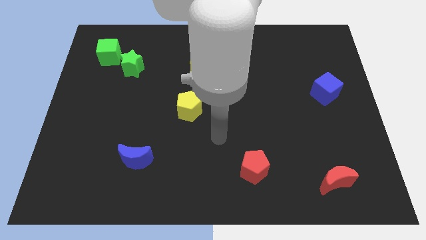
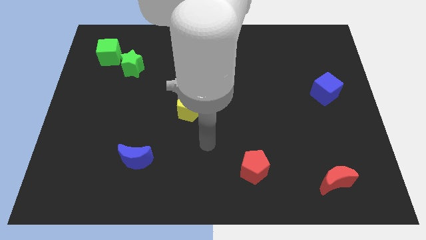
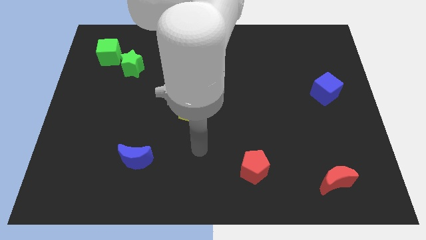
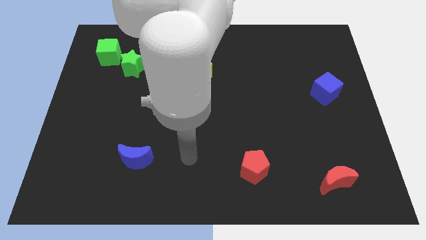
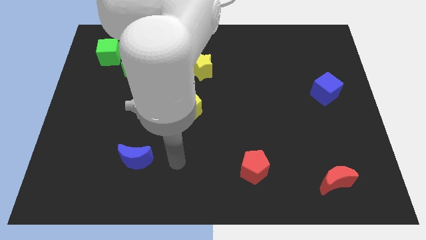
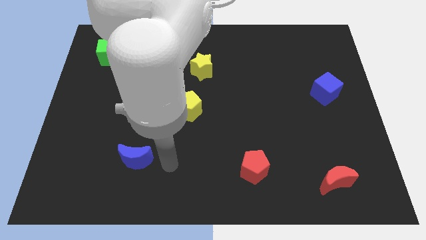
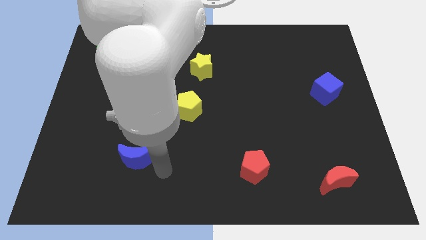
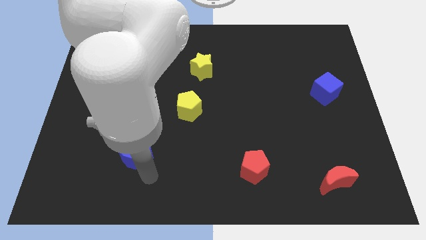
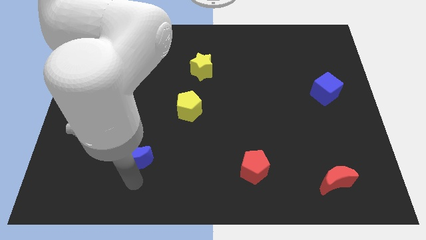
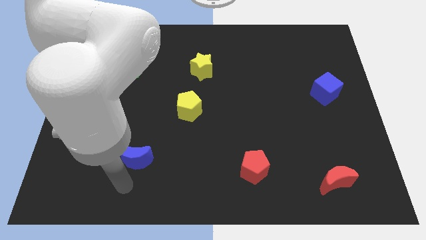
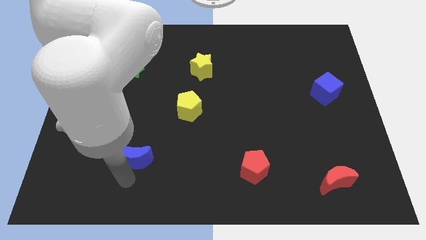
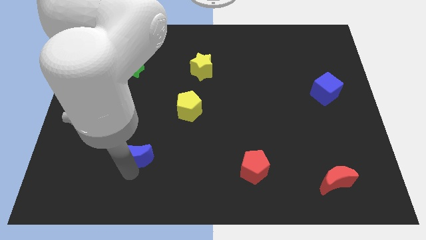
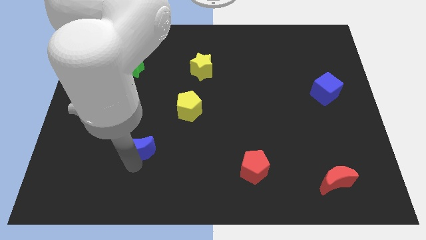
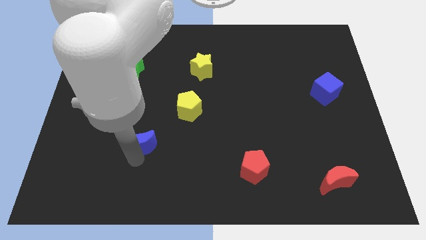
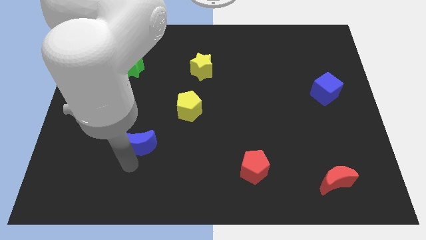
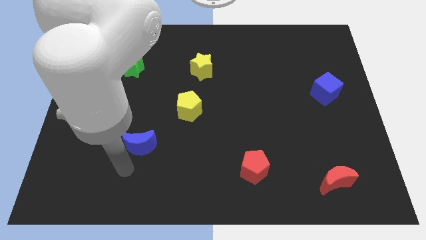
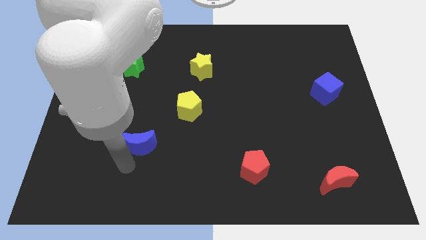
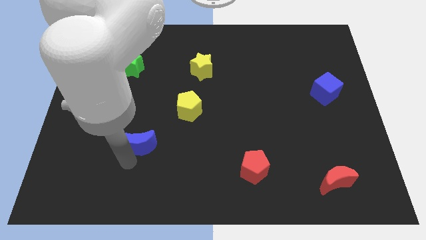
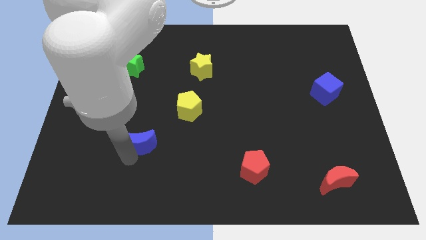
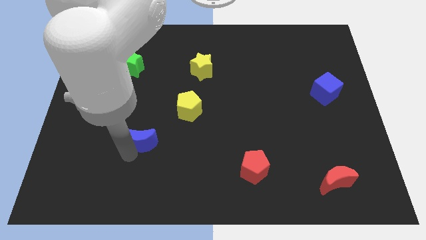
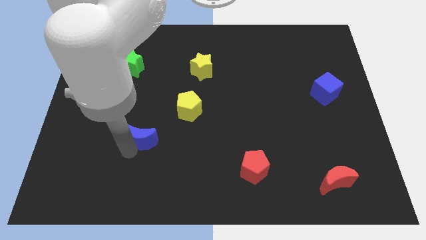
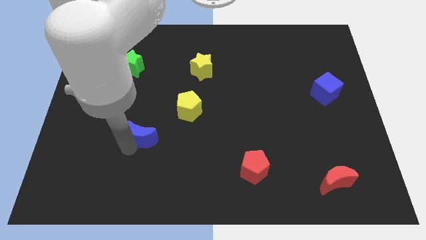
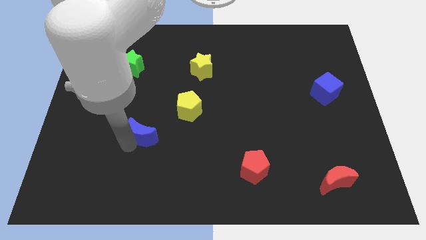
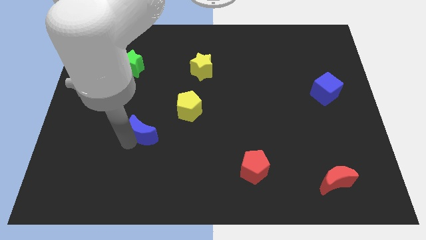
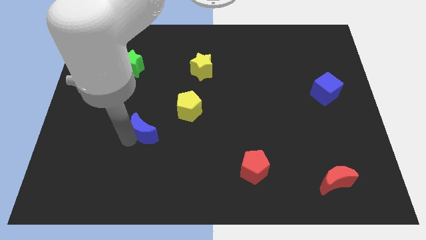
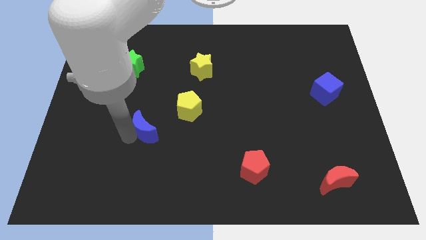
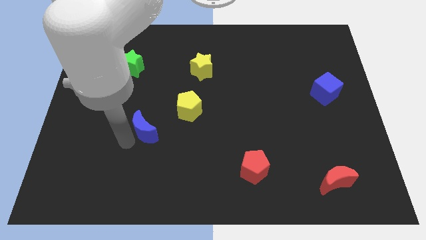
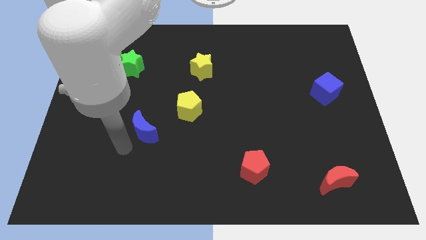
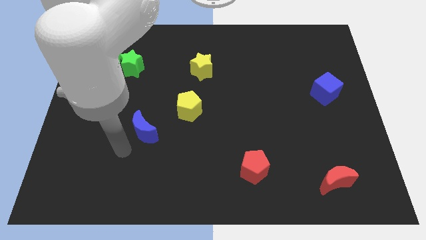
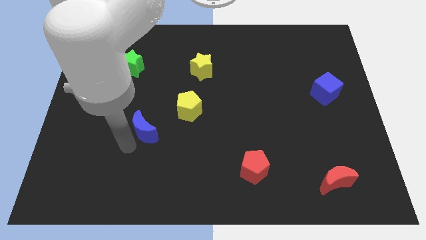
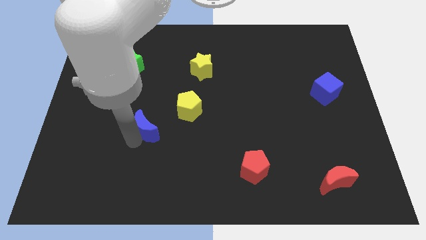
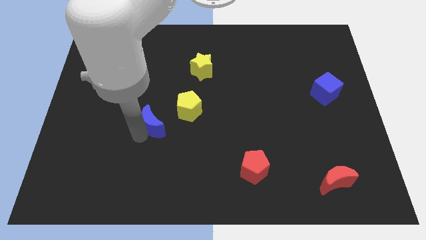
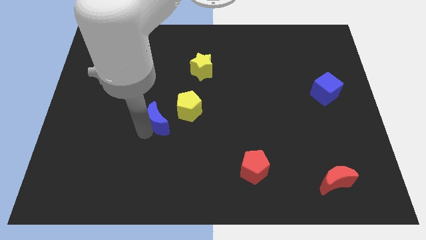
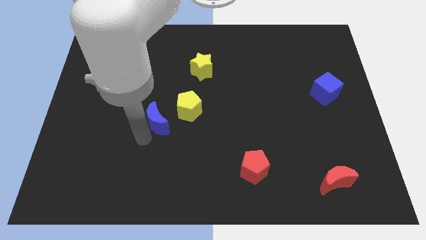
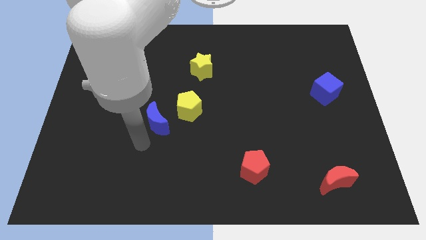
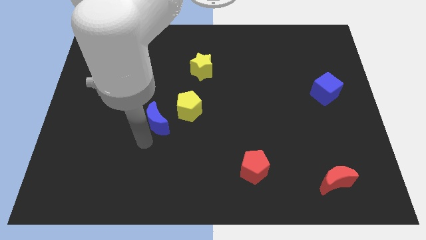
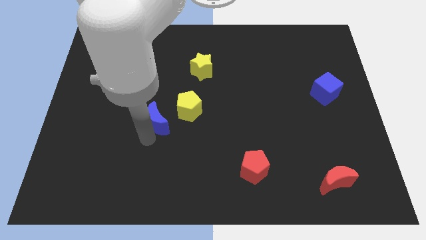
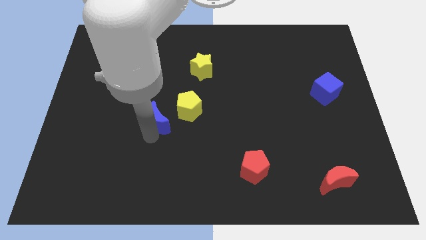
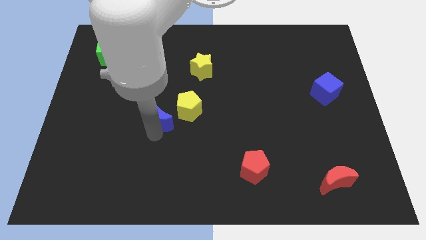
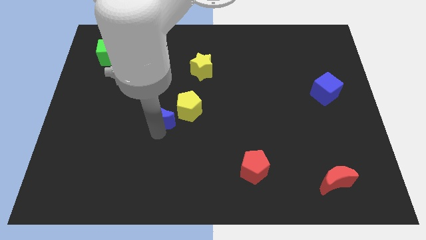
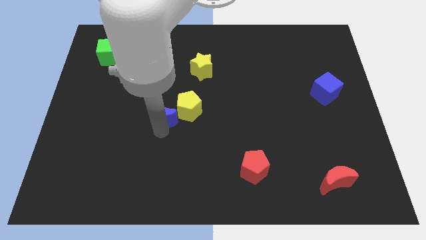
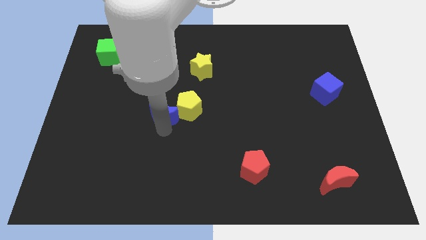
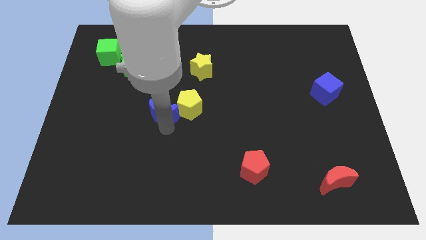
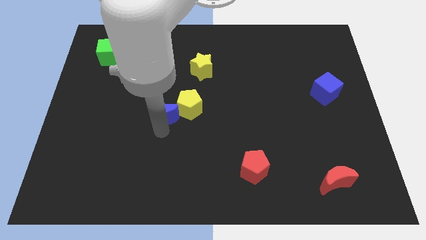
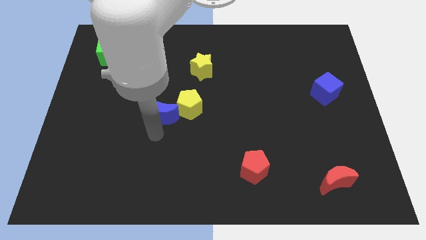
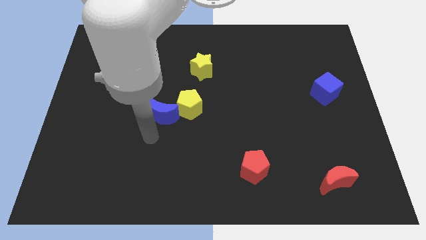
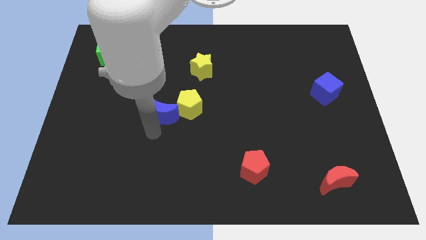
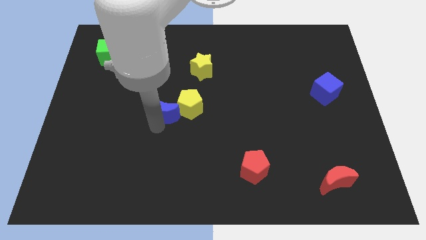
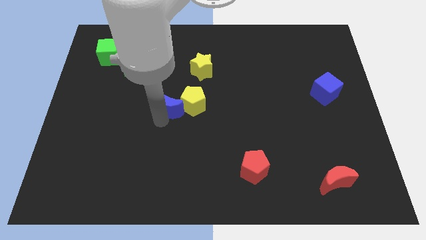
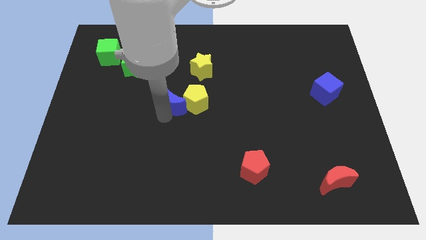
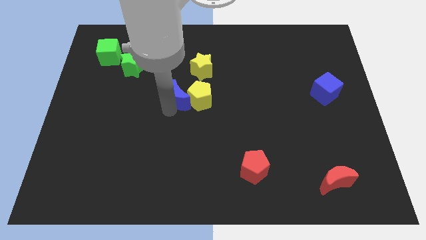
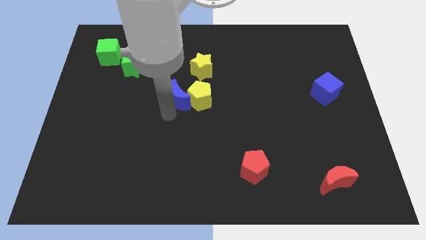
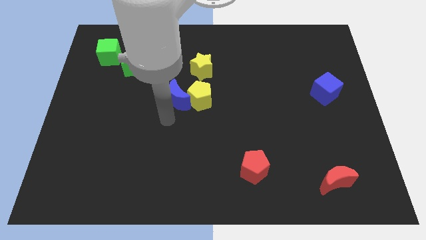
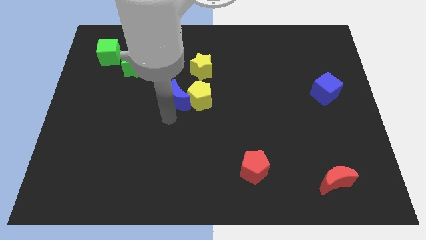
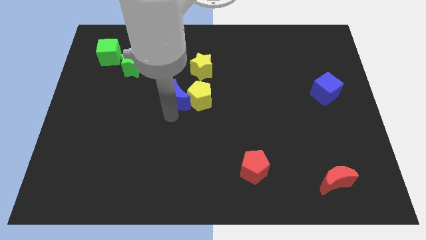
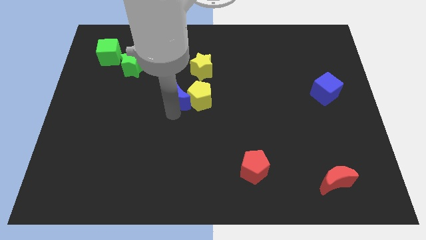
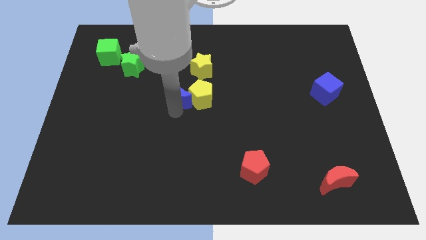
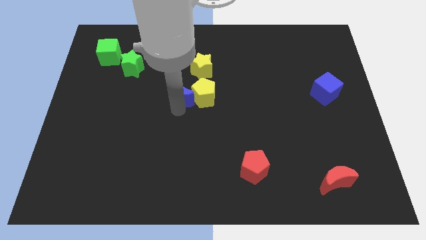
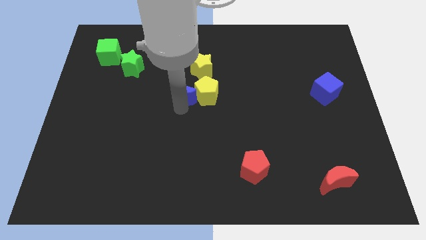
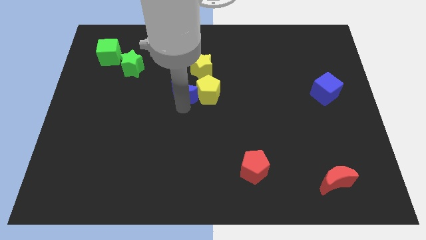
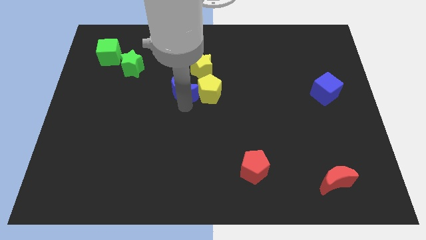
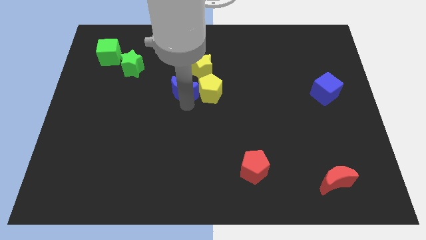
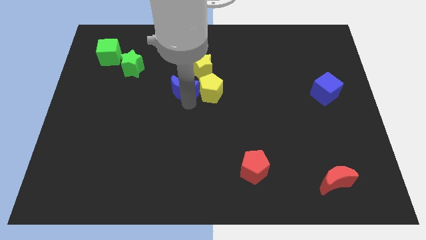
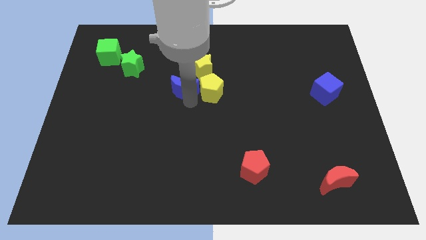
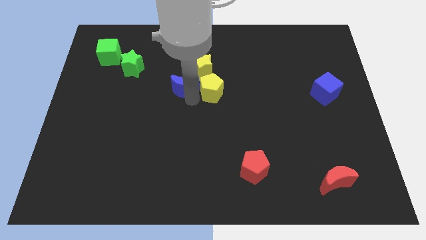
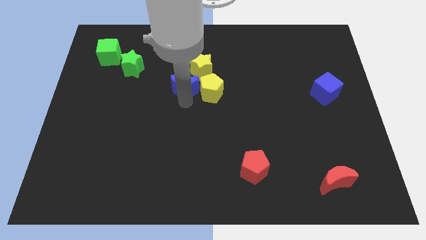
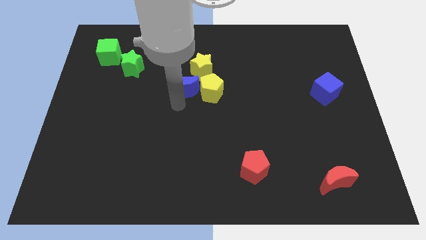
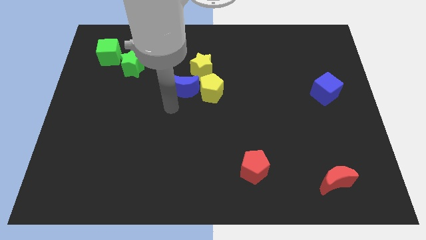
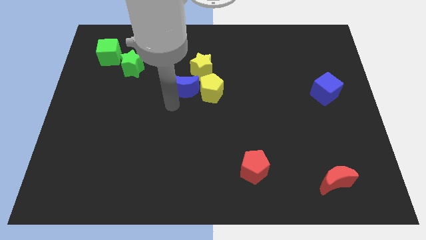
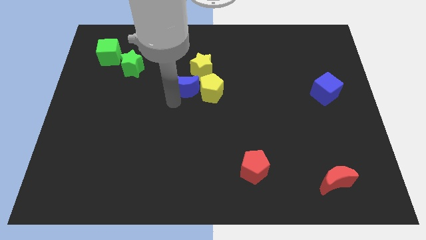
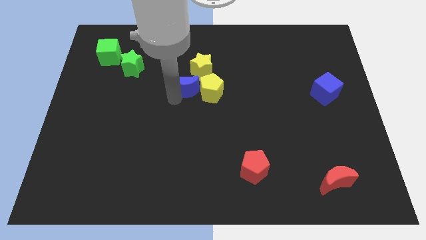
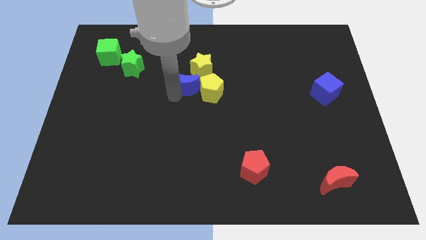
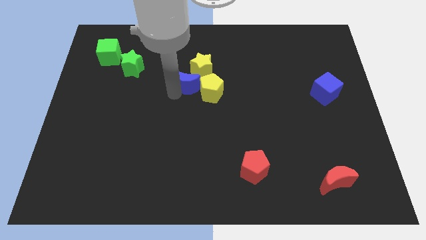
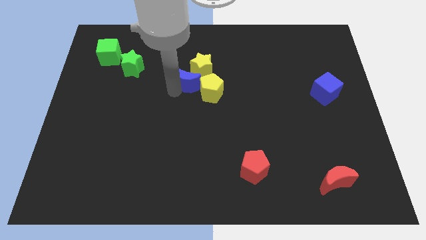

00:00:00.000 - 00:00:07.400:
slide the blue moon towards the yellow star
